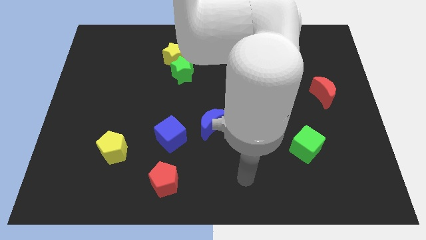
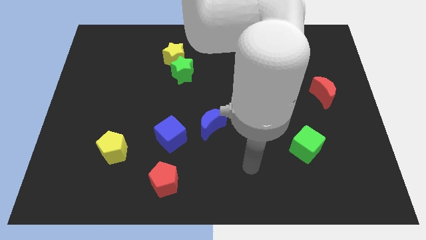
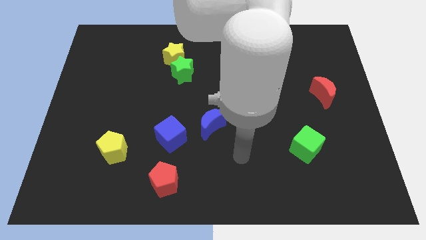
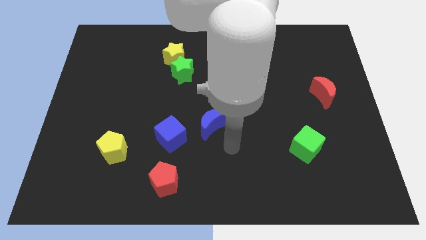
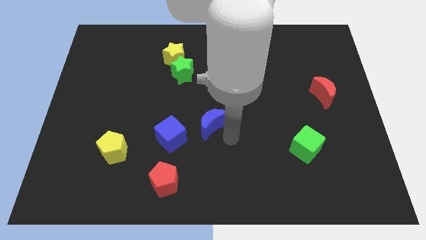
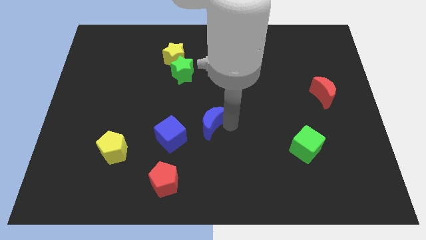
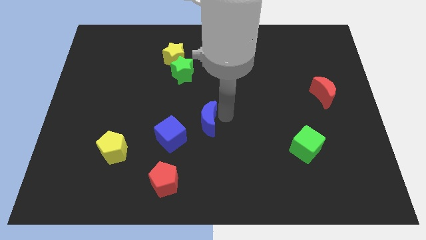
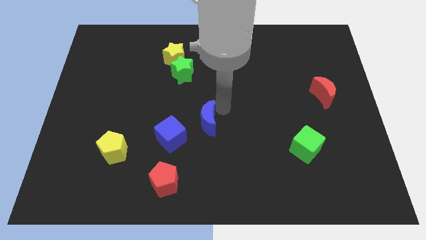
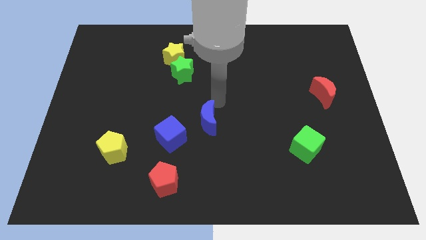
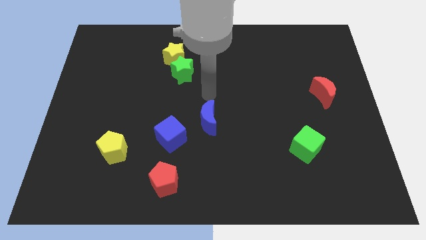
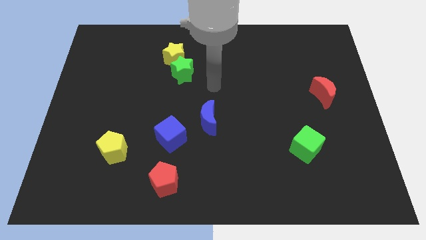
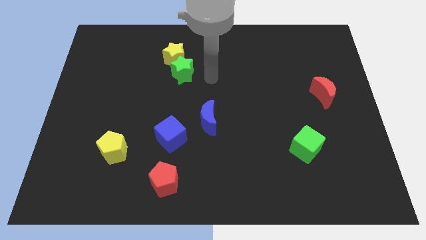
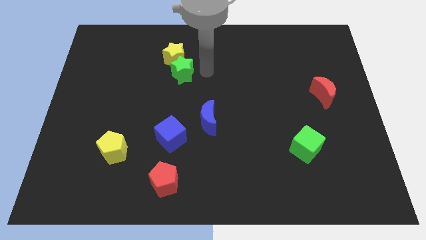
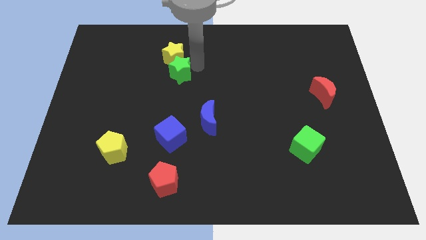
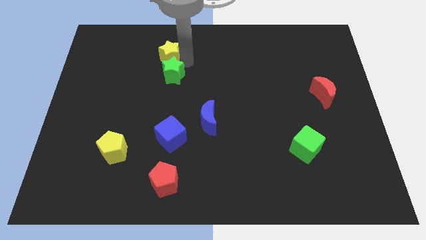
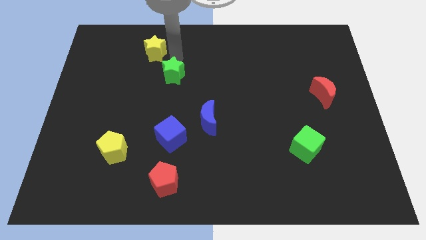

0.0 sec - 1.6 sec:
pull the green star apart from the yellow star

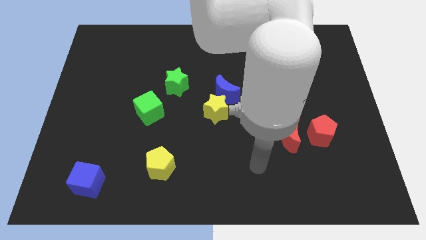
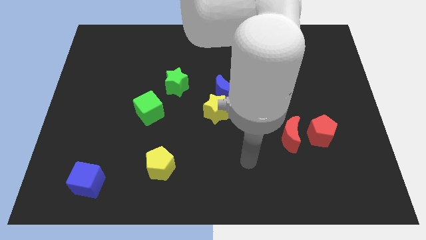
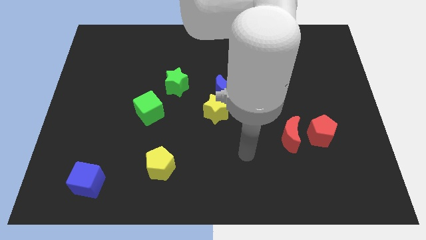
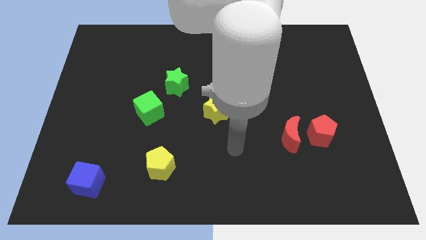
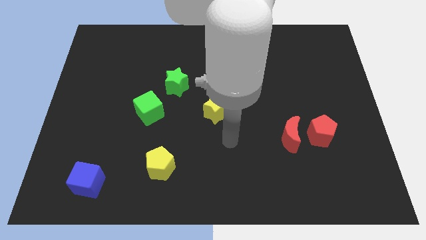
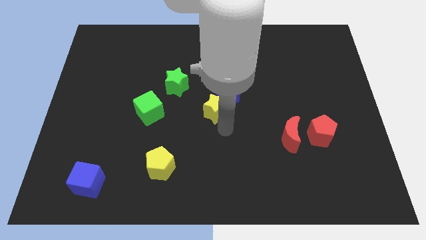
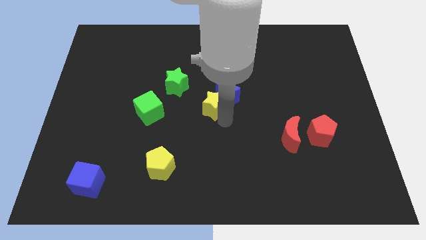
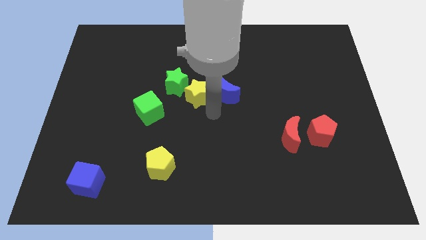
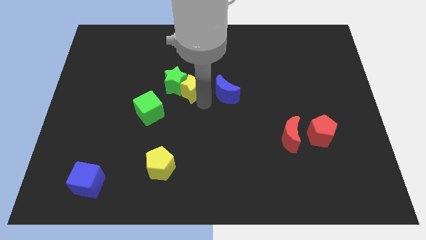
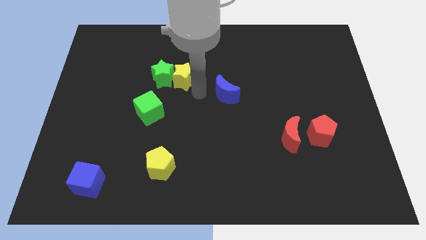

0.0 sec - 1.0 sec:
pull the blue moon apart from the yellow star

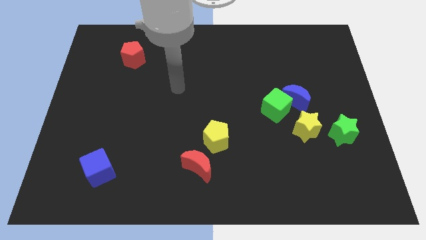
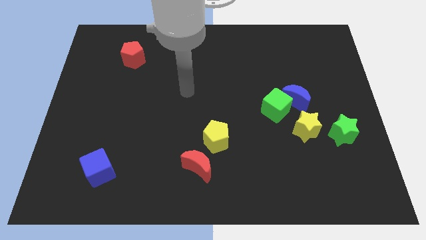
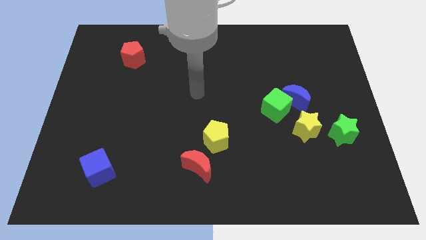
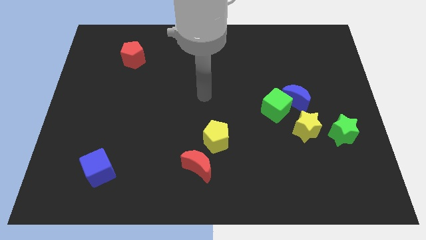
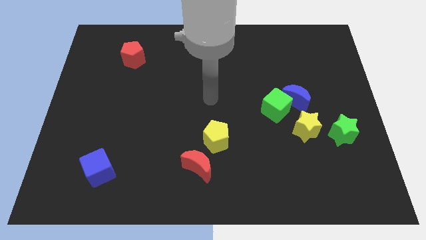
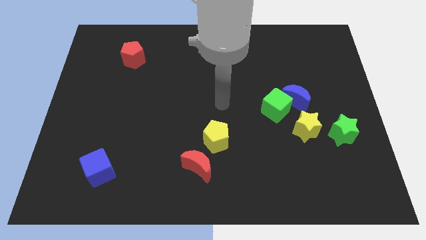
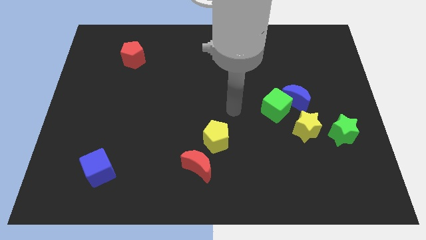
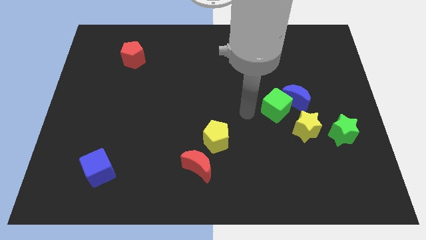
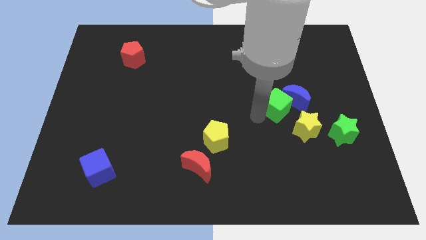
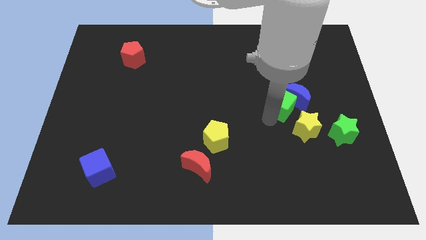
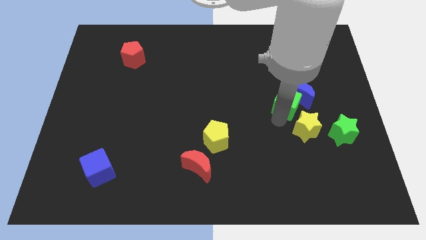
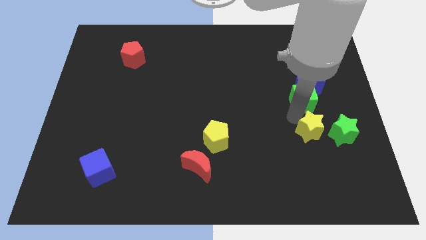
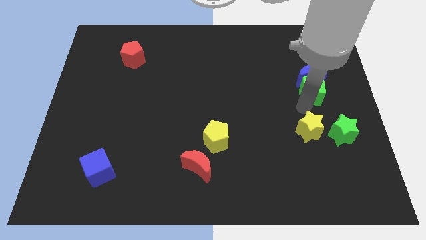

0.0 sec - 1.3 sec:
move the blue moon away from the green cube and yellow star

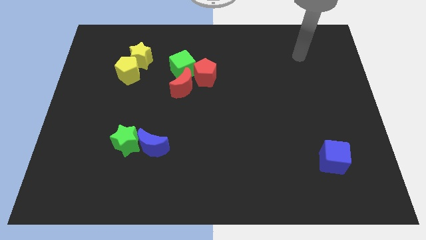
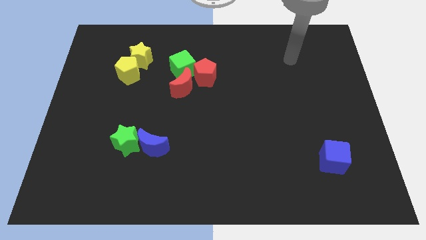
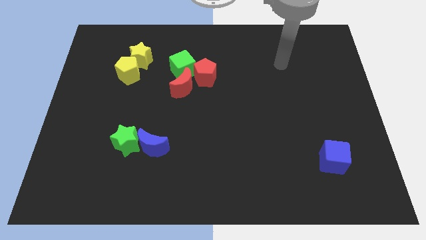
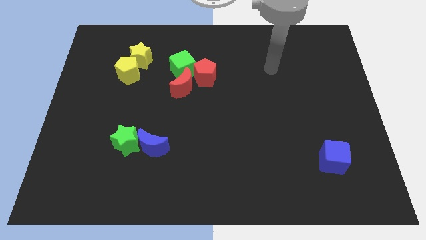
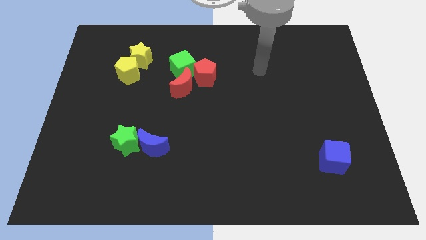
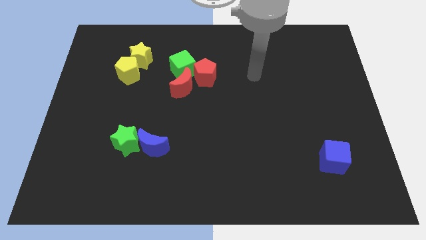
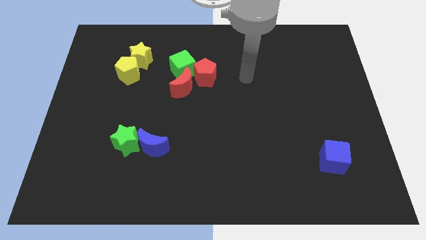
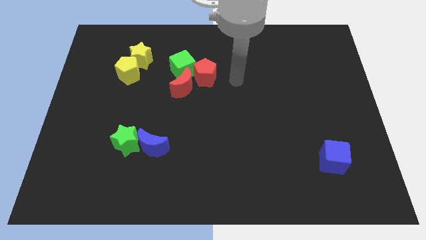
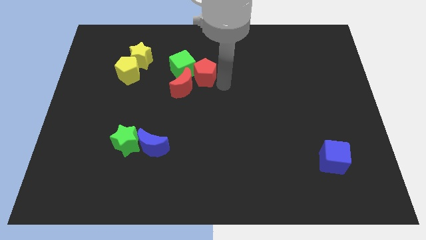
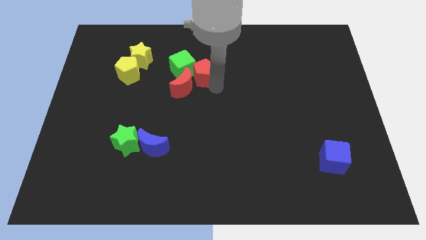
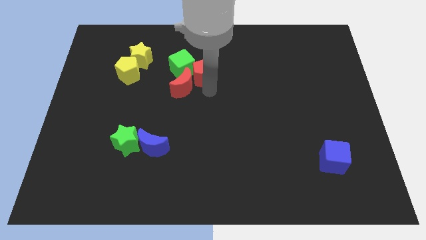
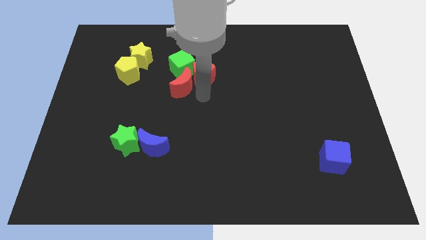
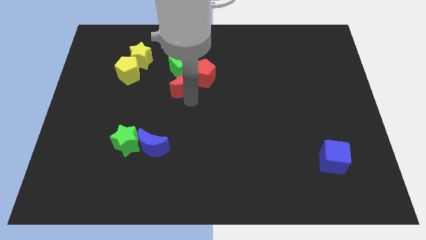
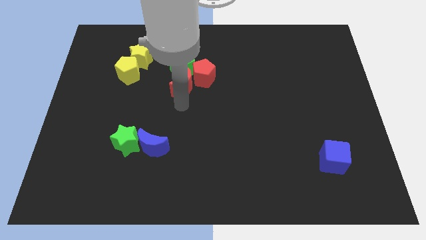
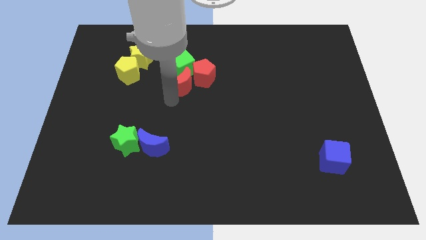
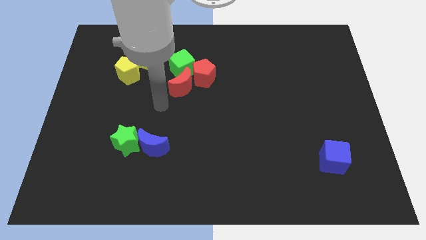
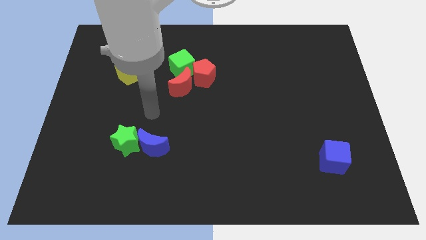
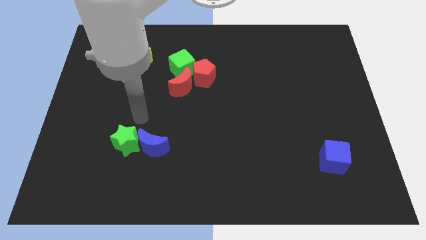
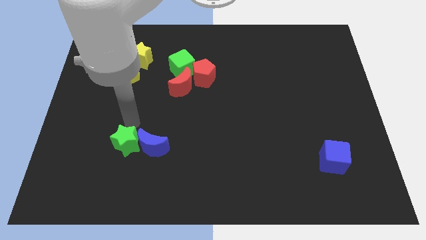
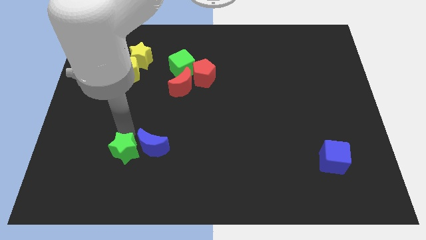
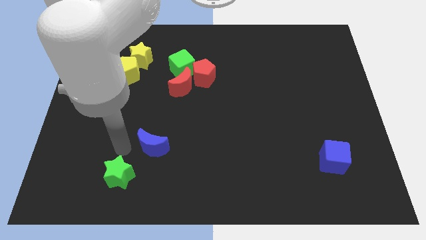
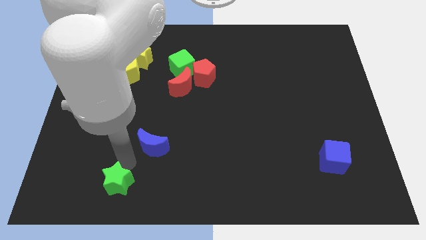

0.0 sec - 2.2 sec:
move the blue moon away from the green star

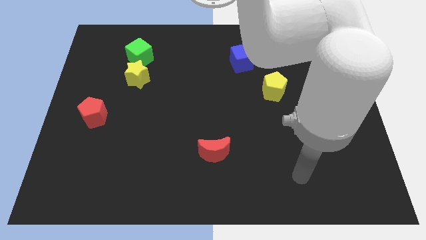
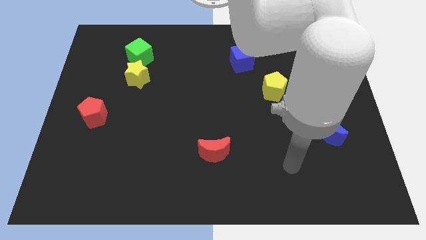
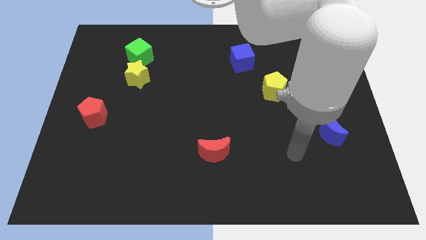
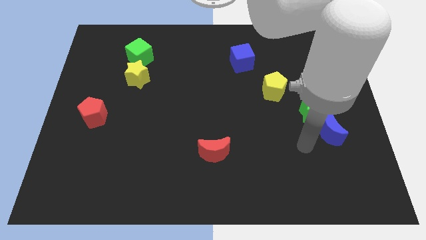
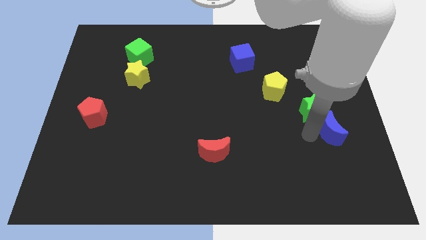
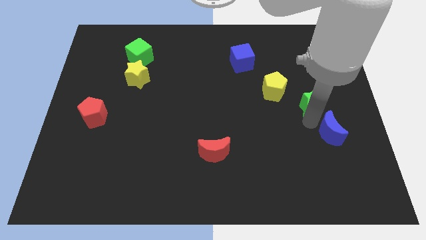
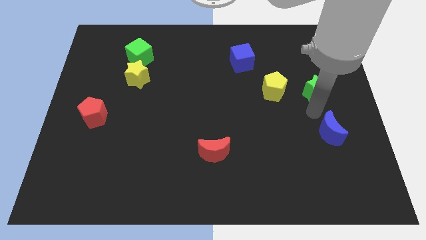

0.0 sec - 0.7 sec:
separate the blue moon from the green star

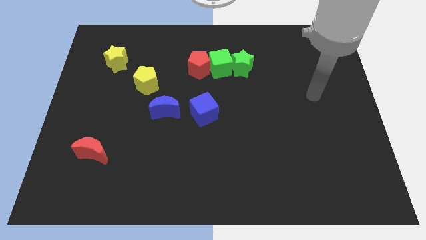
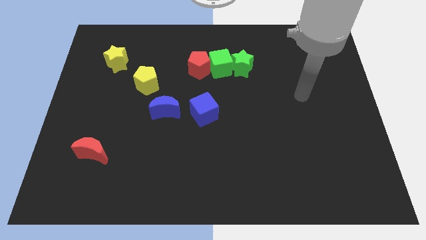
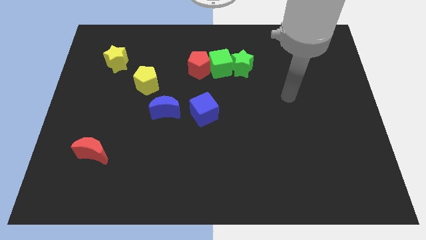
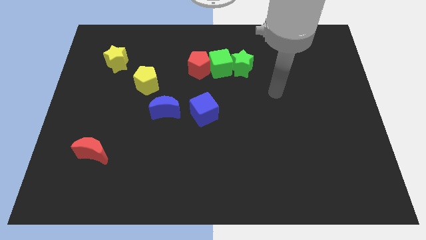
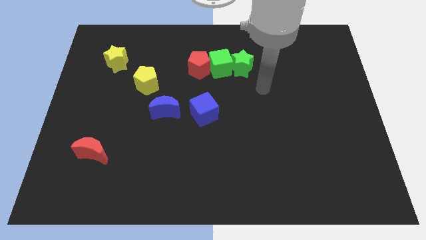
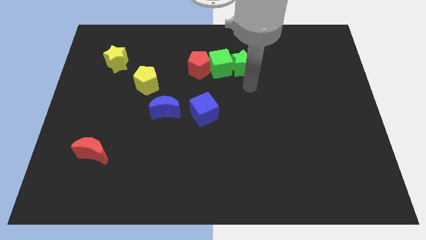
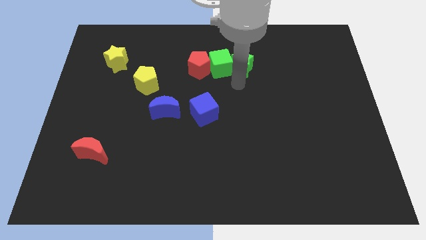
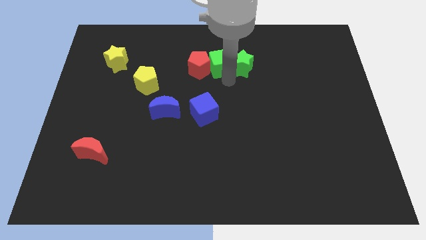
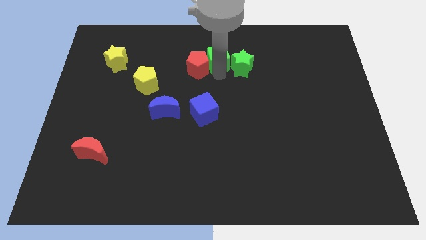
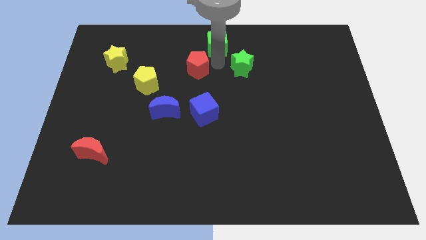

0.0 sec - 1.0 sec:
separate the green star from the green cube

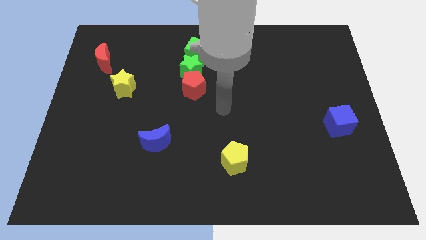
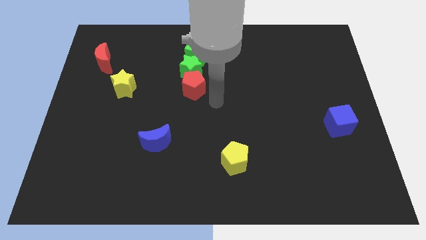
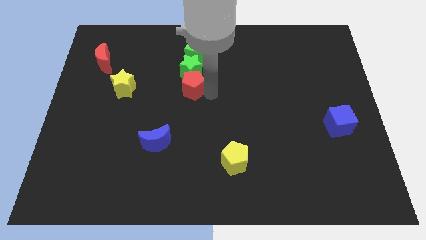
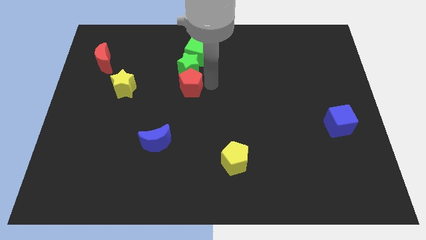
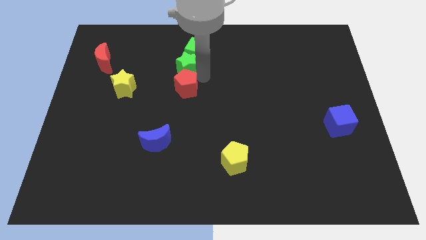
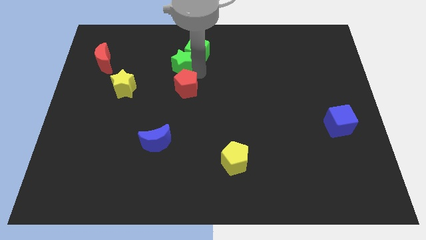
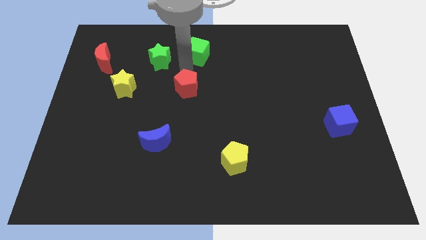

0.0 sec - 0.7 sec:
separate the red pentagon from the green star

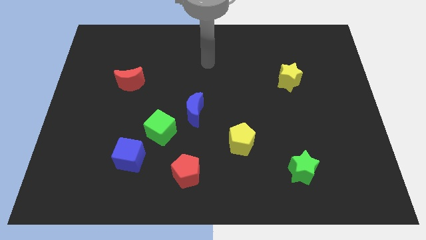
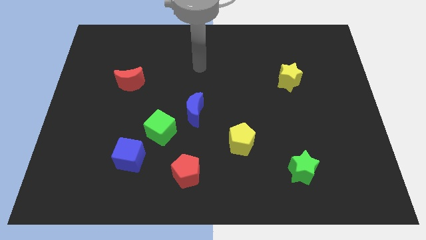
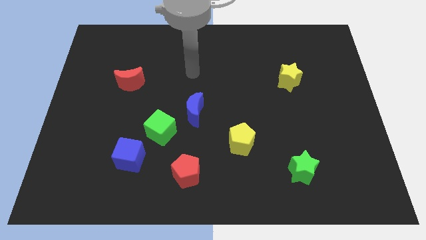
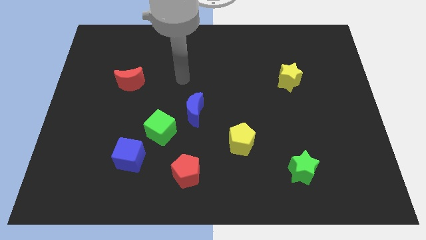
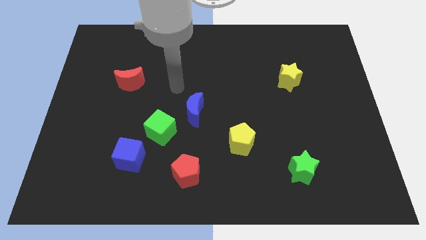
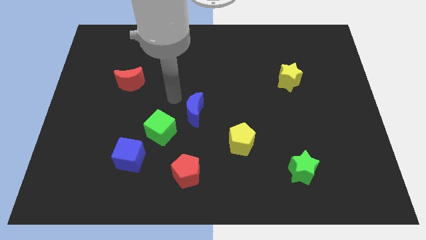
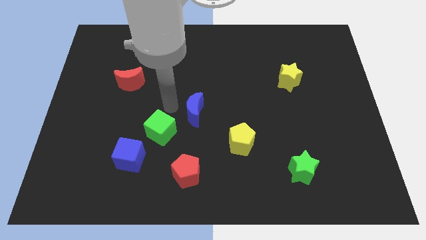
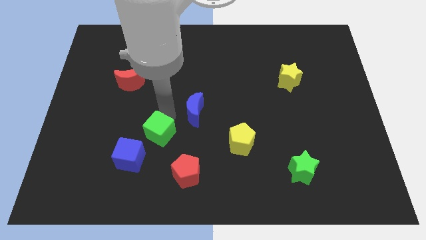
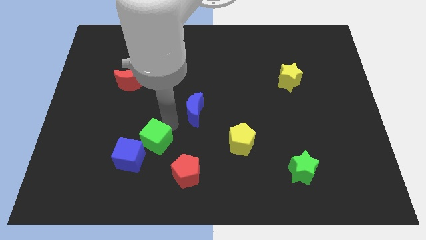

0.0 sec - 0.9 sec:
separate the blue moon from the green cube

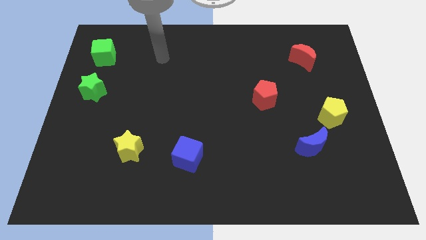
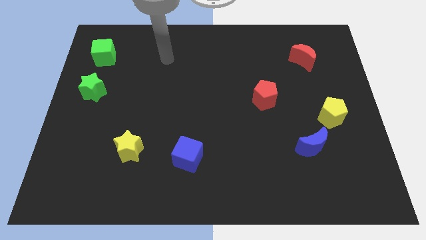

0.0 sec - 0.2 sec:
separate the blue moon from the yellow pentagon
